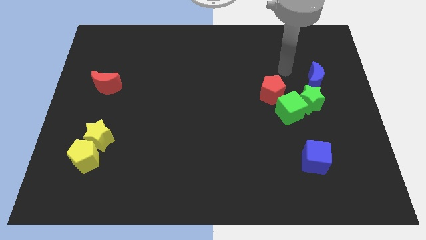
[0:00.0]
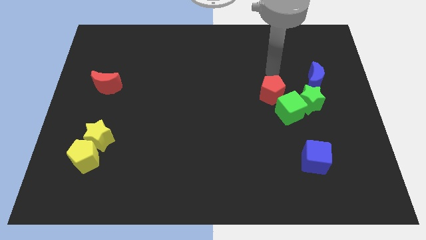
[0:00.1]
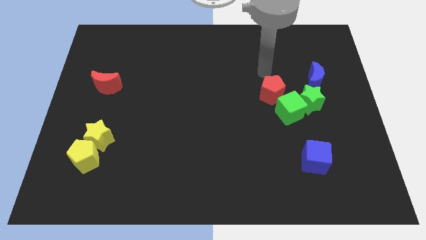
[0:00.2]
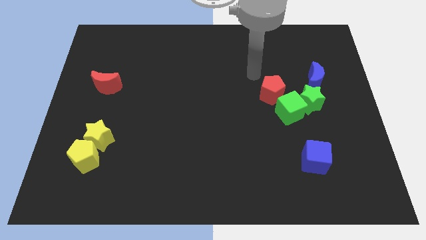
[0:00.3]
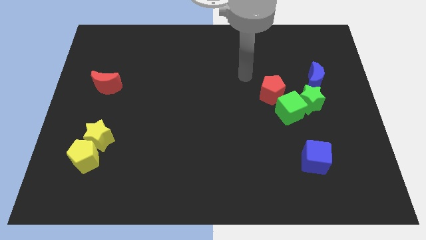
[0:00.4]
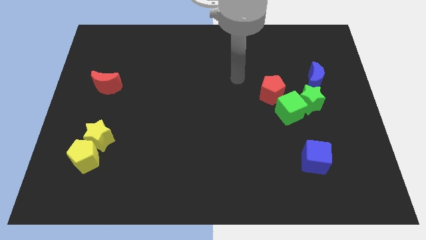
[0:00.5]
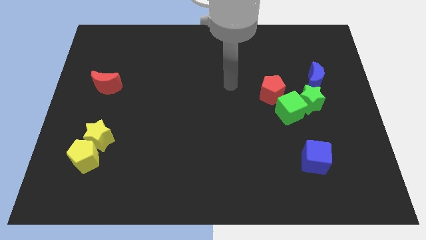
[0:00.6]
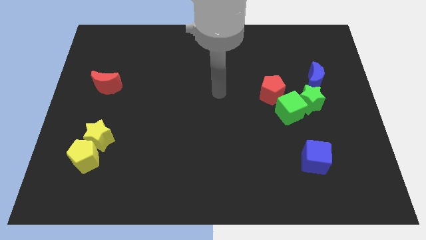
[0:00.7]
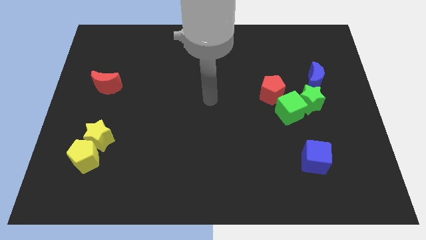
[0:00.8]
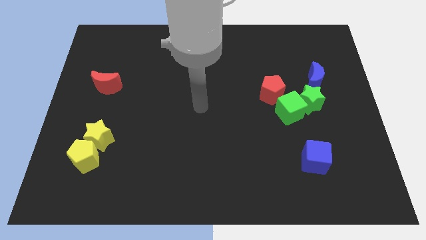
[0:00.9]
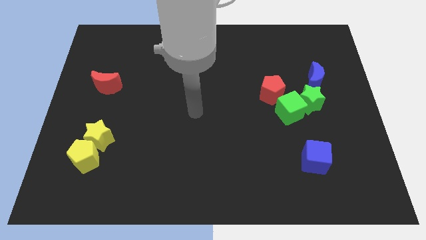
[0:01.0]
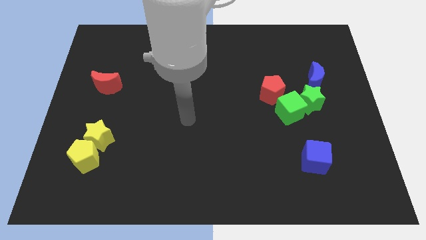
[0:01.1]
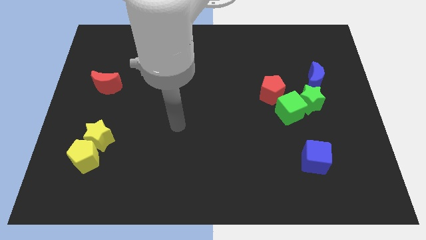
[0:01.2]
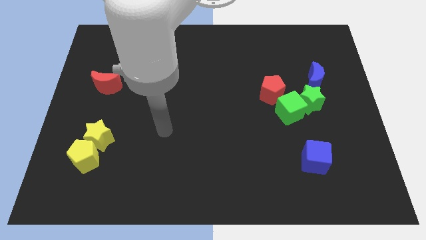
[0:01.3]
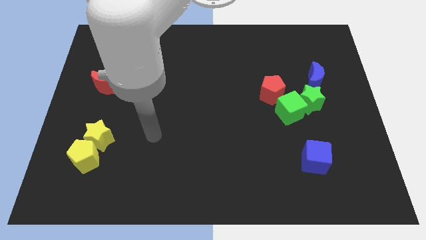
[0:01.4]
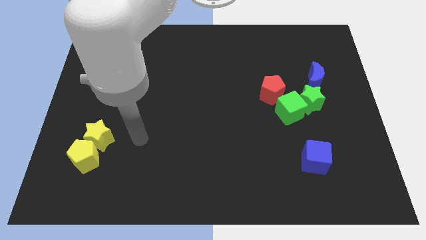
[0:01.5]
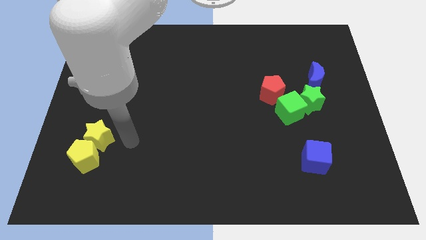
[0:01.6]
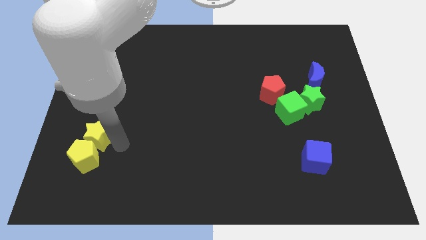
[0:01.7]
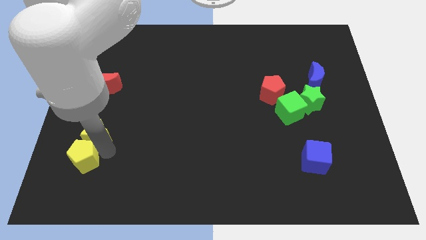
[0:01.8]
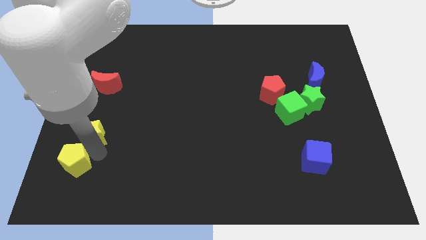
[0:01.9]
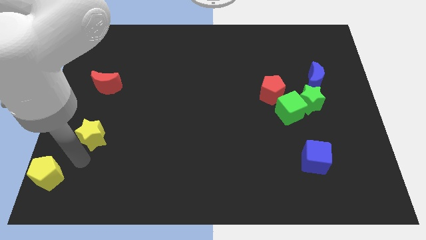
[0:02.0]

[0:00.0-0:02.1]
pull the yellow star apart from the yellow pentagon

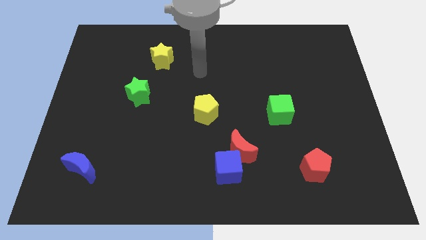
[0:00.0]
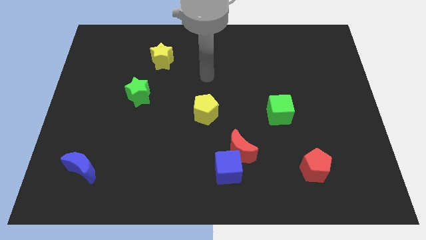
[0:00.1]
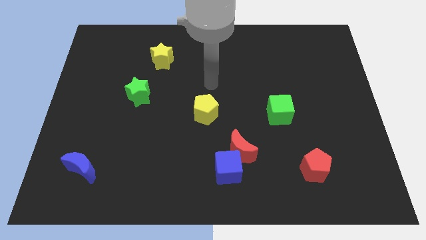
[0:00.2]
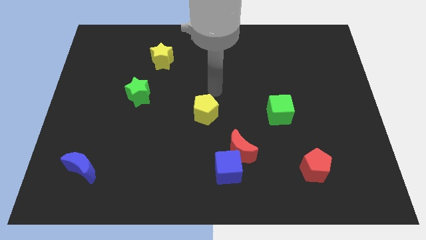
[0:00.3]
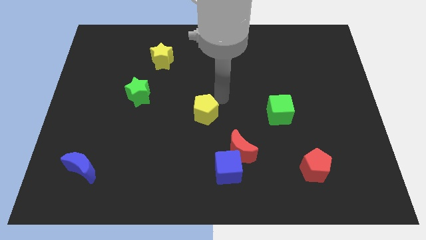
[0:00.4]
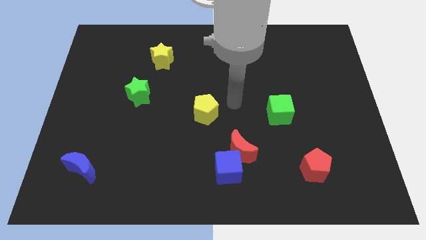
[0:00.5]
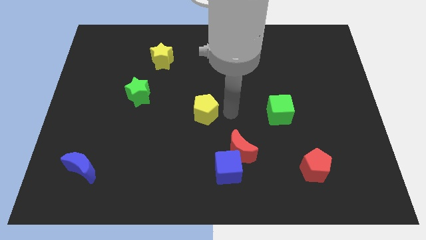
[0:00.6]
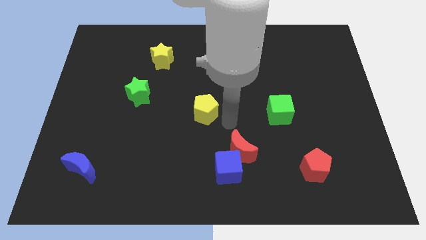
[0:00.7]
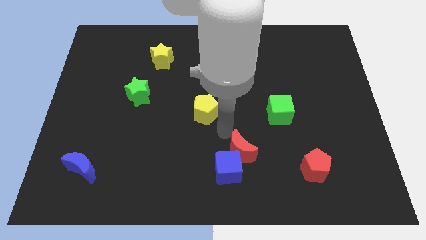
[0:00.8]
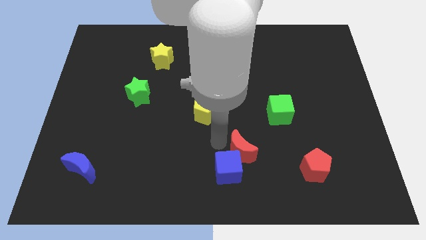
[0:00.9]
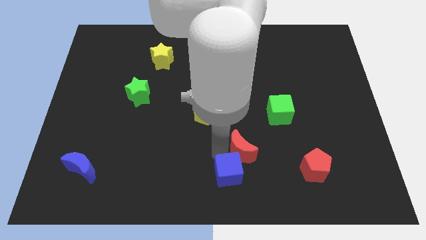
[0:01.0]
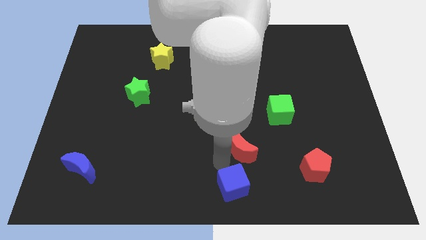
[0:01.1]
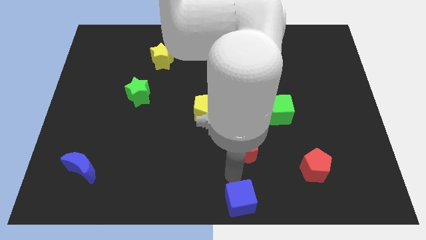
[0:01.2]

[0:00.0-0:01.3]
pull the red moon apart from the blue cube

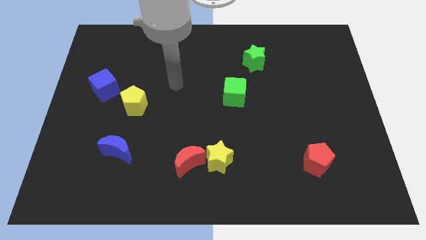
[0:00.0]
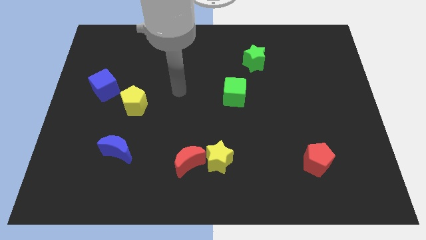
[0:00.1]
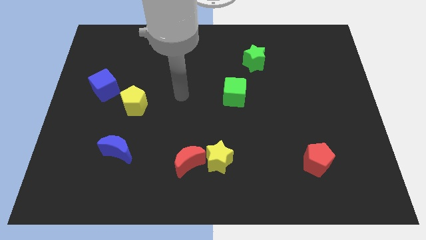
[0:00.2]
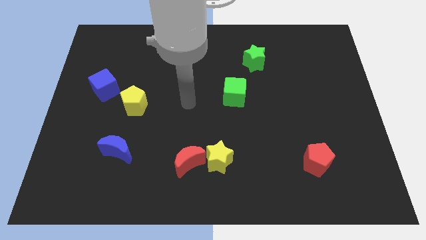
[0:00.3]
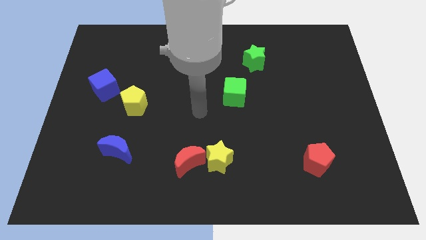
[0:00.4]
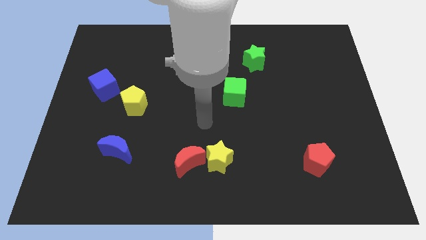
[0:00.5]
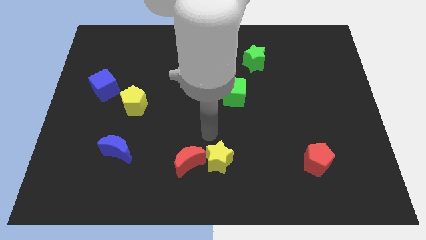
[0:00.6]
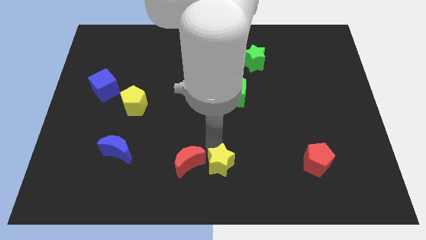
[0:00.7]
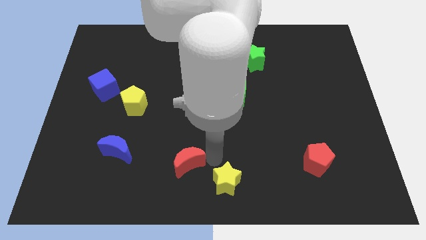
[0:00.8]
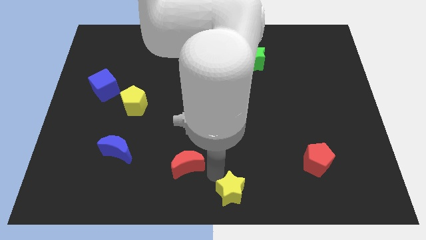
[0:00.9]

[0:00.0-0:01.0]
separate the red moon from the yellow star

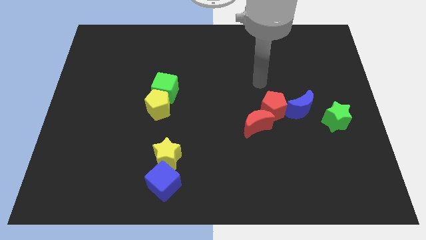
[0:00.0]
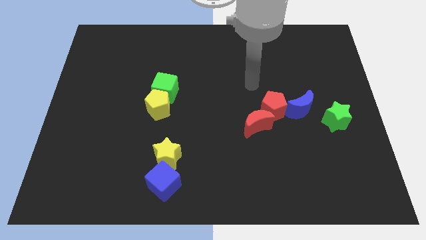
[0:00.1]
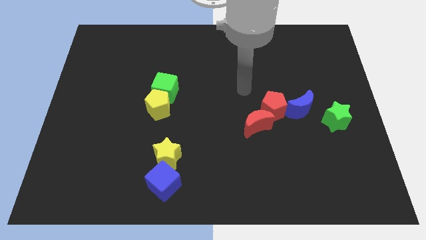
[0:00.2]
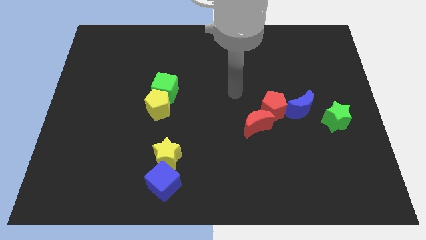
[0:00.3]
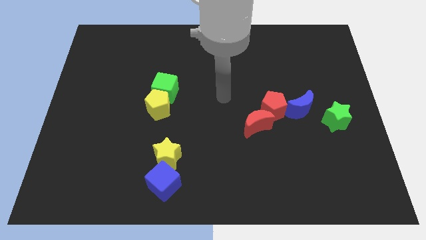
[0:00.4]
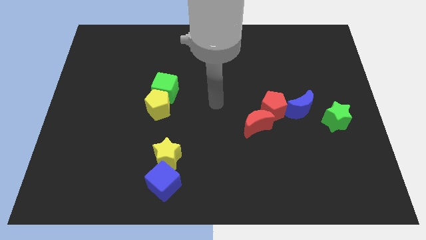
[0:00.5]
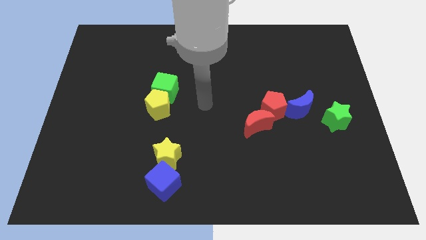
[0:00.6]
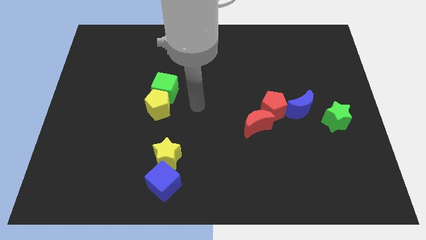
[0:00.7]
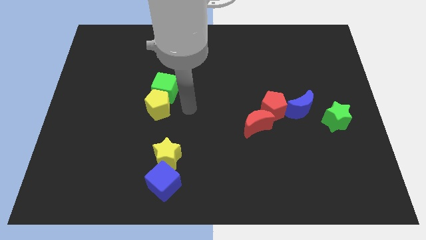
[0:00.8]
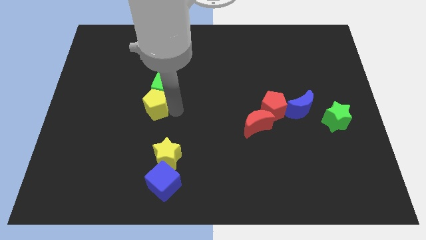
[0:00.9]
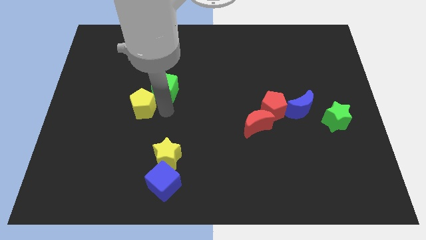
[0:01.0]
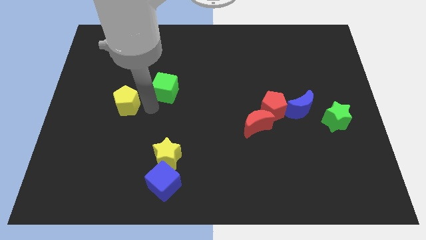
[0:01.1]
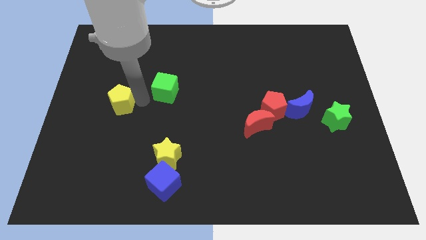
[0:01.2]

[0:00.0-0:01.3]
pull the green cube apart from the yellow pentagon

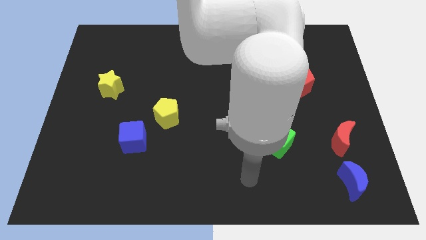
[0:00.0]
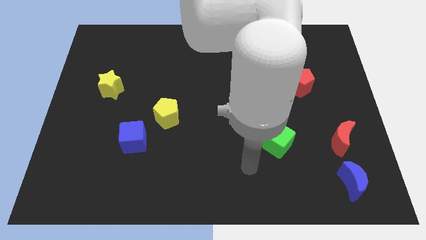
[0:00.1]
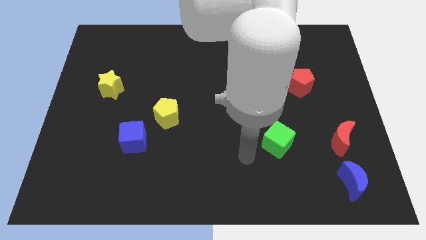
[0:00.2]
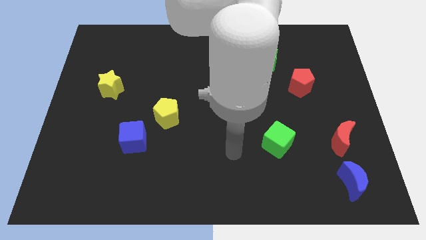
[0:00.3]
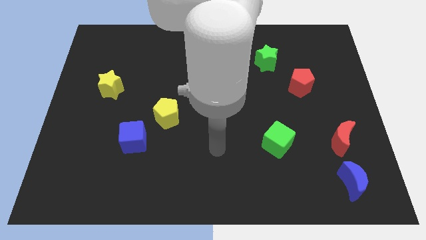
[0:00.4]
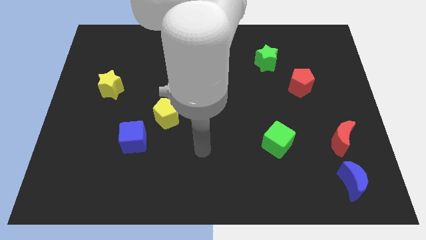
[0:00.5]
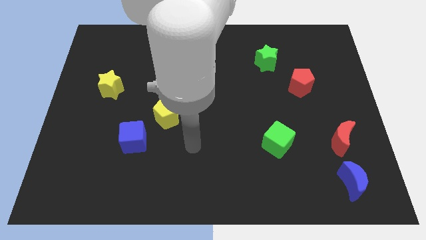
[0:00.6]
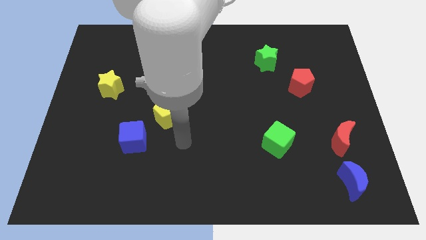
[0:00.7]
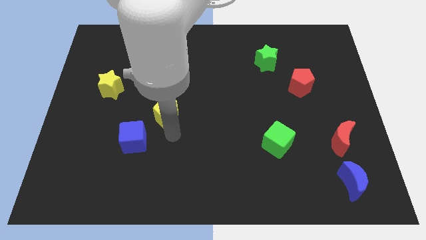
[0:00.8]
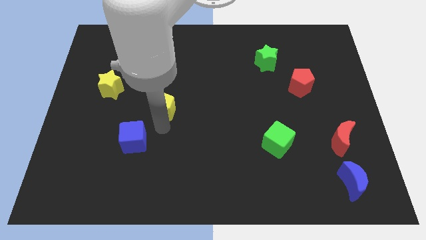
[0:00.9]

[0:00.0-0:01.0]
pull the blue cube apart from the yellow pentagon

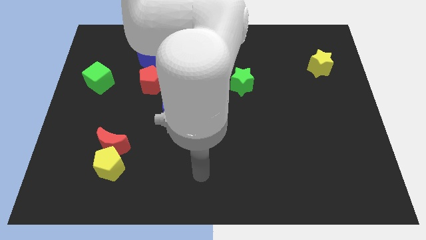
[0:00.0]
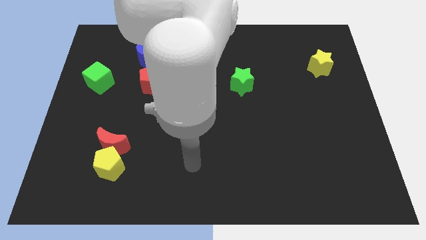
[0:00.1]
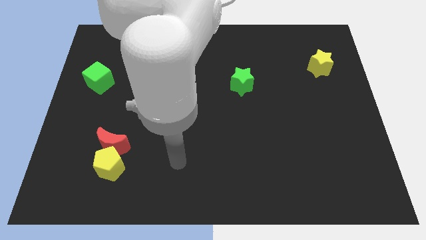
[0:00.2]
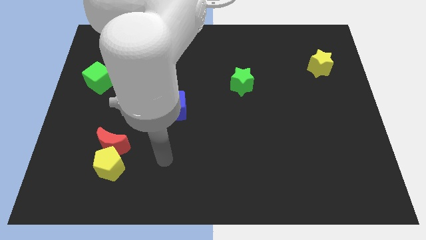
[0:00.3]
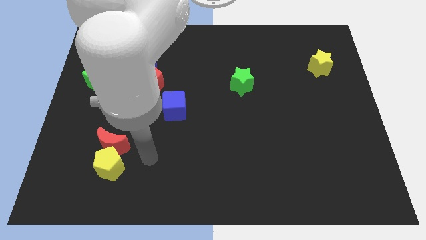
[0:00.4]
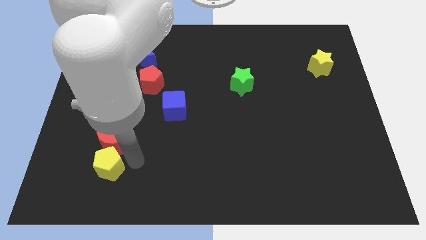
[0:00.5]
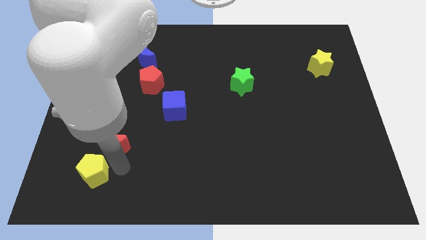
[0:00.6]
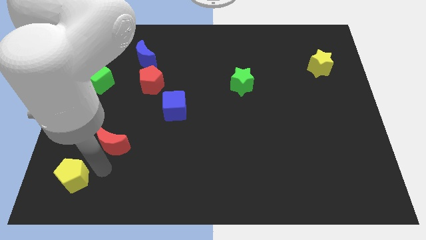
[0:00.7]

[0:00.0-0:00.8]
separate the red moon from the yellow pentagon

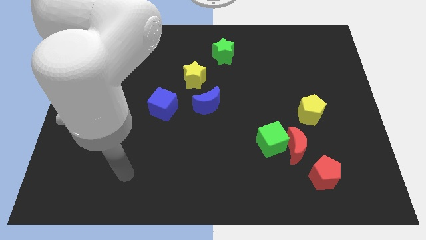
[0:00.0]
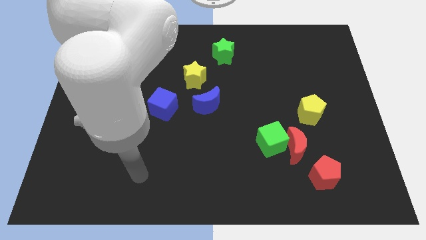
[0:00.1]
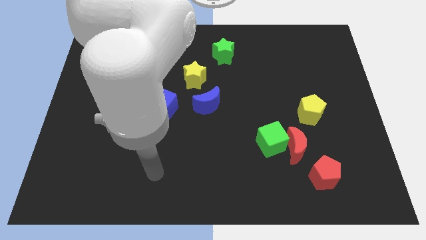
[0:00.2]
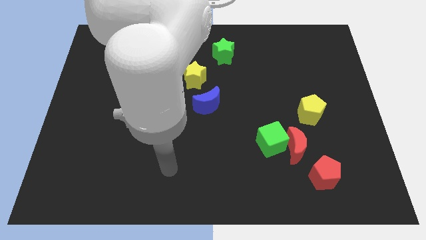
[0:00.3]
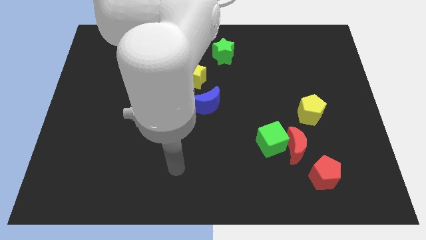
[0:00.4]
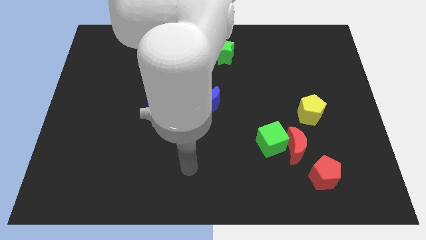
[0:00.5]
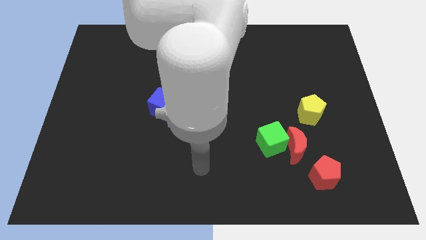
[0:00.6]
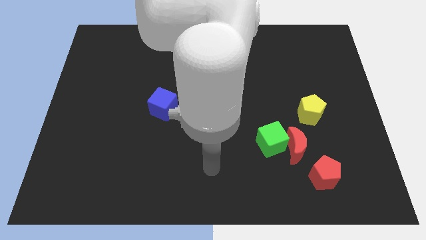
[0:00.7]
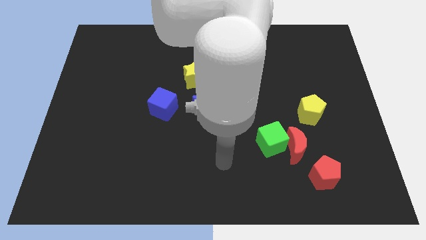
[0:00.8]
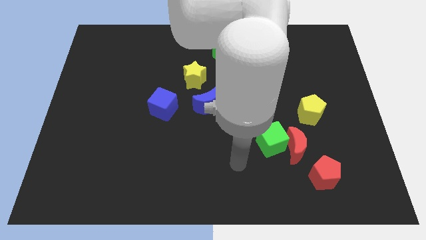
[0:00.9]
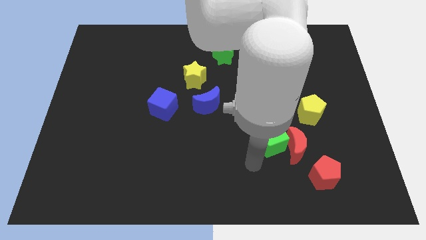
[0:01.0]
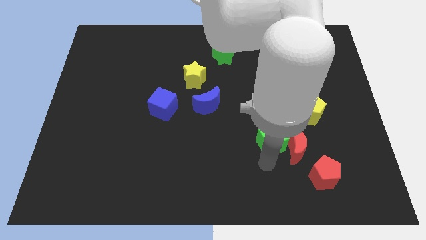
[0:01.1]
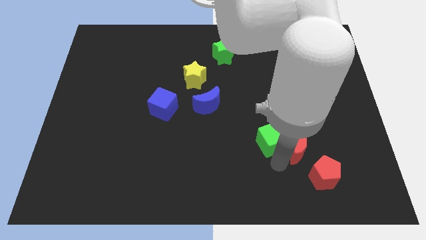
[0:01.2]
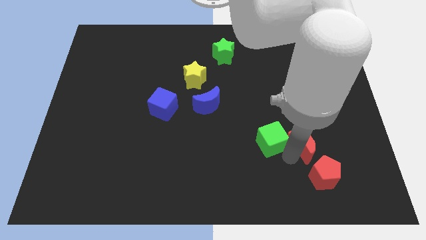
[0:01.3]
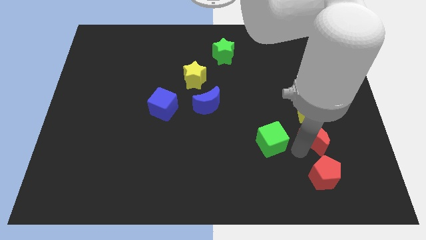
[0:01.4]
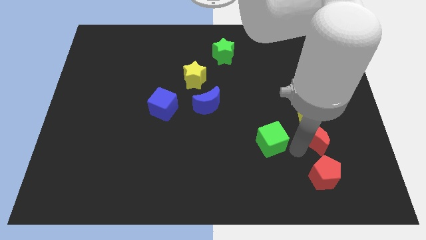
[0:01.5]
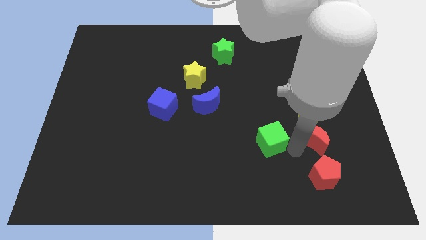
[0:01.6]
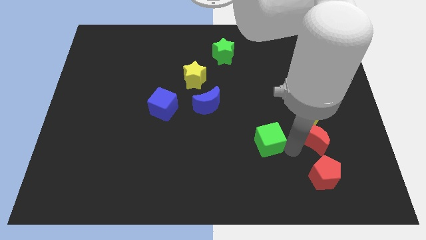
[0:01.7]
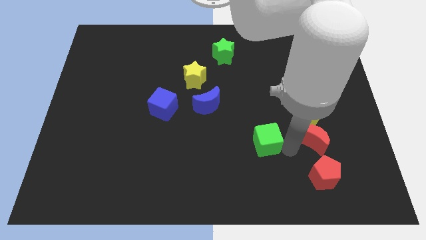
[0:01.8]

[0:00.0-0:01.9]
pull the green cube apart from the red moon

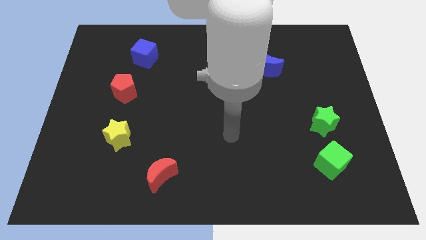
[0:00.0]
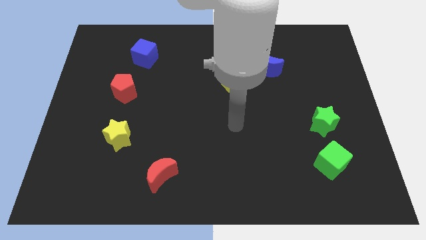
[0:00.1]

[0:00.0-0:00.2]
move the blue moon away from the yellow pentagon
